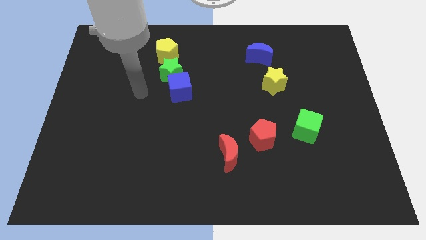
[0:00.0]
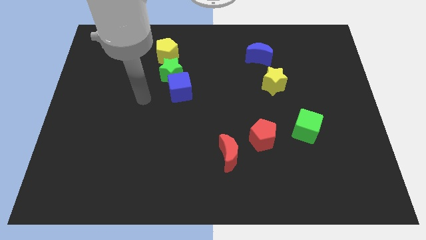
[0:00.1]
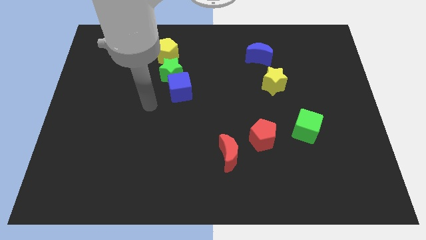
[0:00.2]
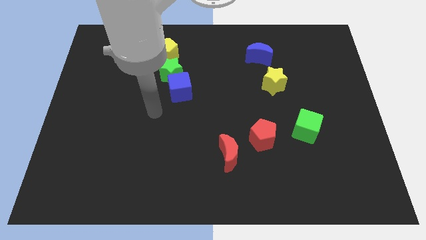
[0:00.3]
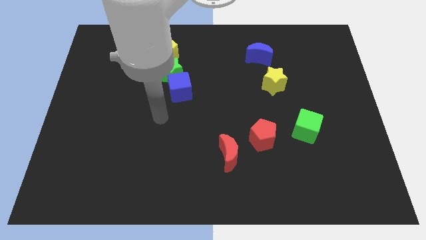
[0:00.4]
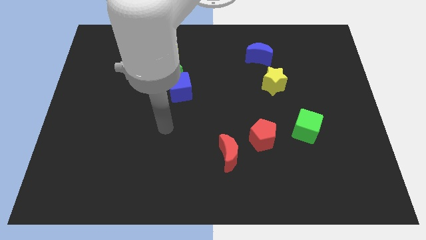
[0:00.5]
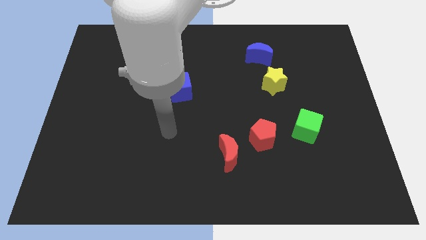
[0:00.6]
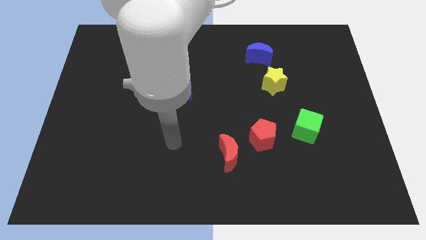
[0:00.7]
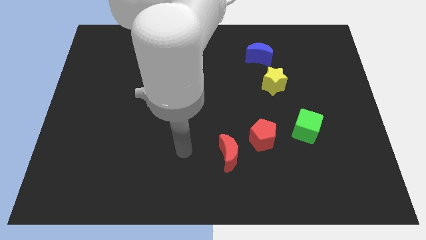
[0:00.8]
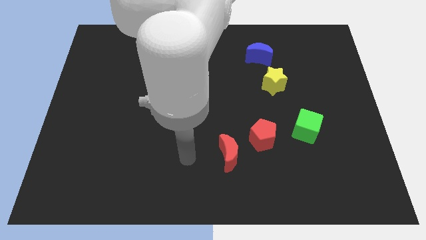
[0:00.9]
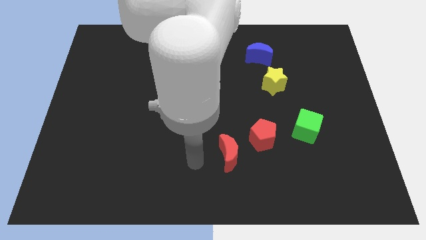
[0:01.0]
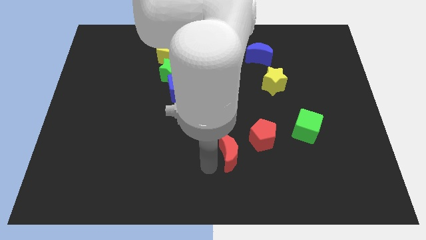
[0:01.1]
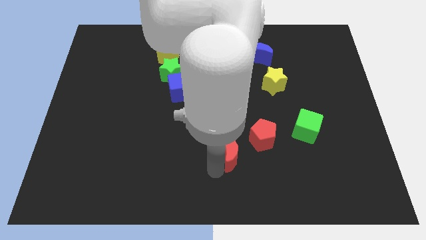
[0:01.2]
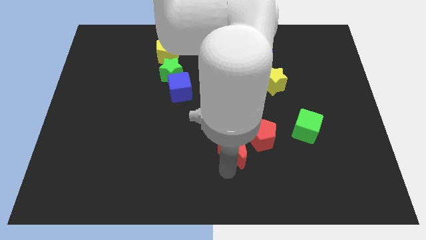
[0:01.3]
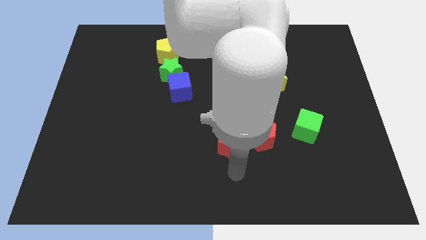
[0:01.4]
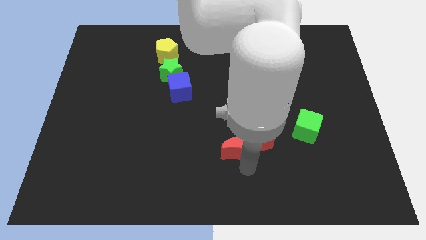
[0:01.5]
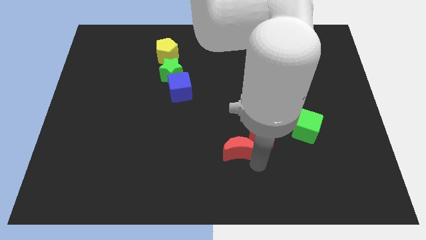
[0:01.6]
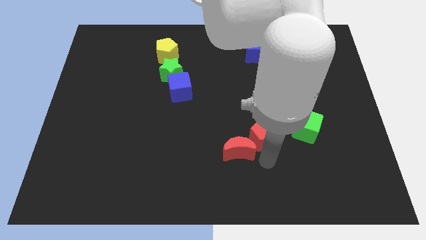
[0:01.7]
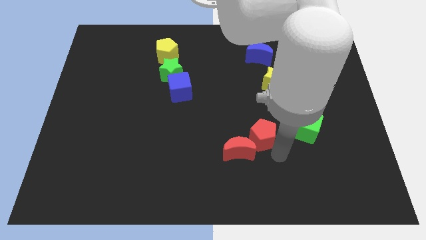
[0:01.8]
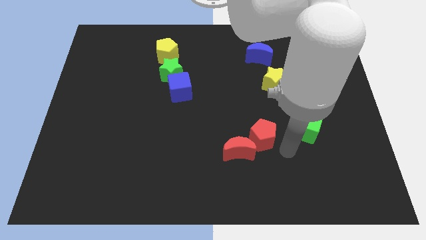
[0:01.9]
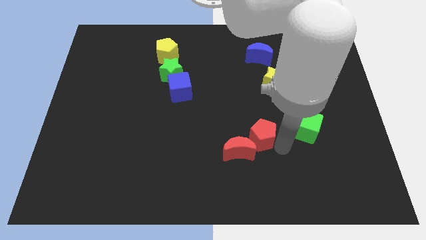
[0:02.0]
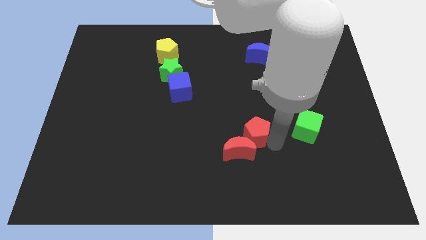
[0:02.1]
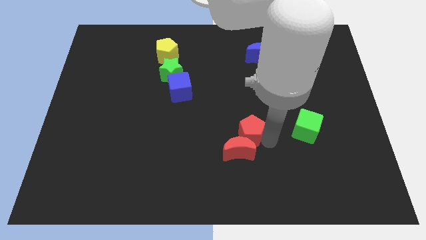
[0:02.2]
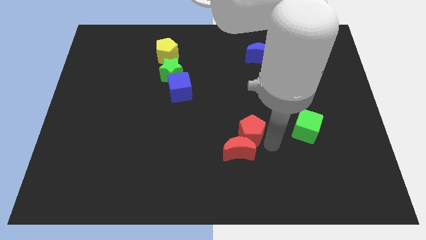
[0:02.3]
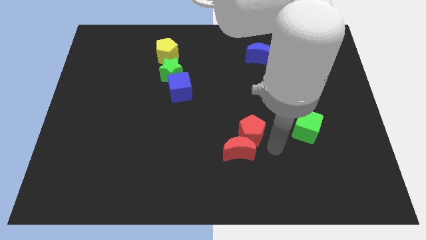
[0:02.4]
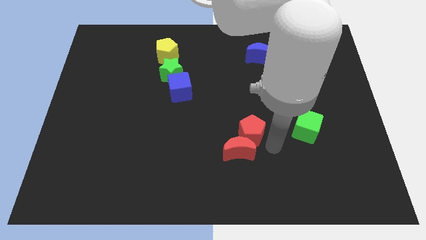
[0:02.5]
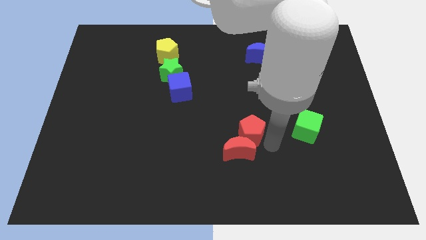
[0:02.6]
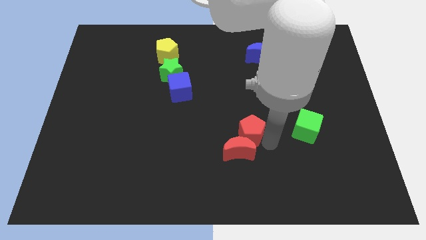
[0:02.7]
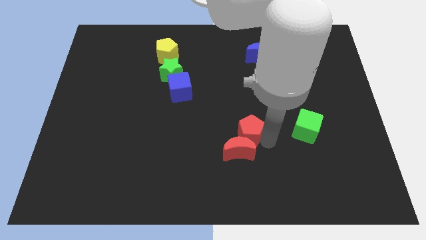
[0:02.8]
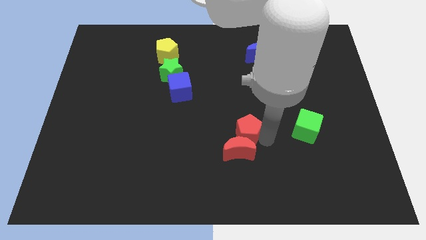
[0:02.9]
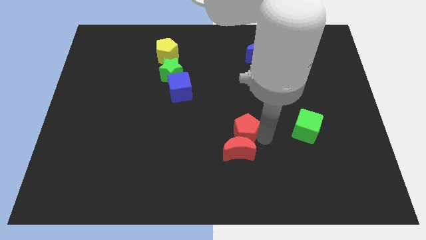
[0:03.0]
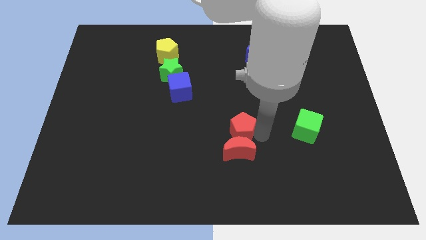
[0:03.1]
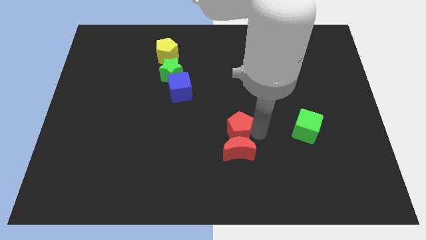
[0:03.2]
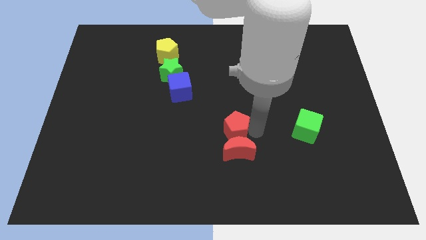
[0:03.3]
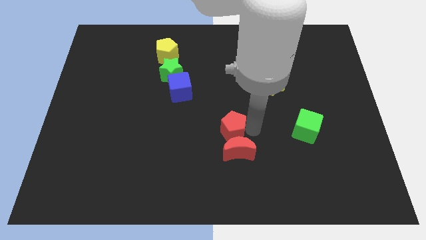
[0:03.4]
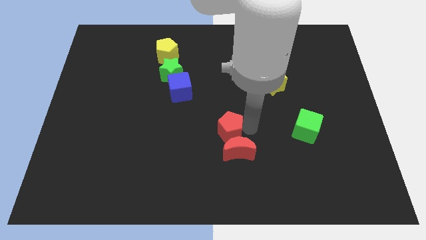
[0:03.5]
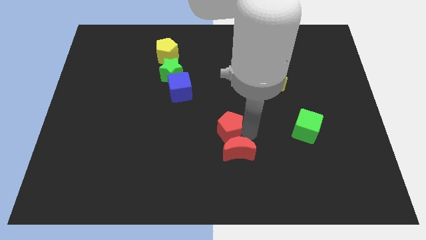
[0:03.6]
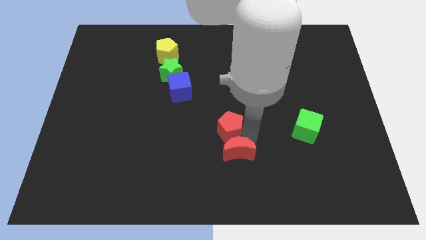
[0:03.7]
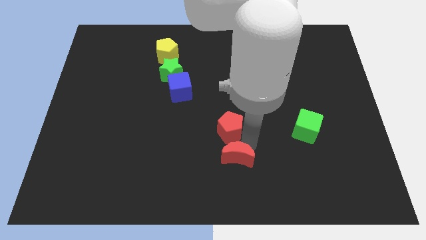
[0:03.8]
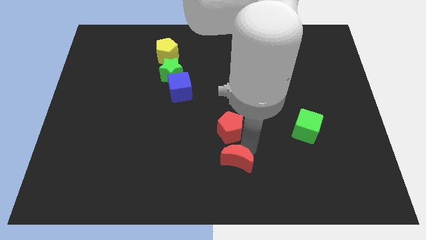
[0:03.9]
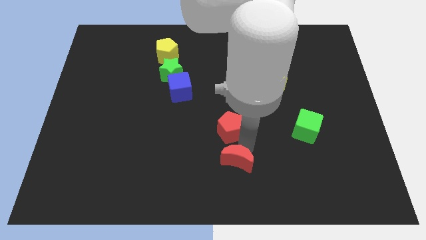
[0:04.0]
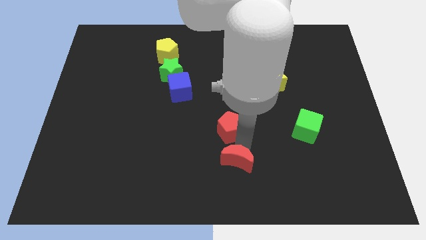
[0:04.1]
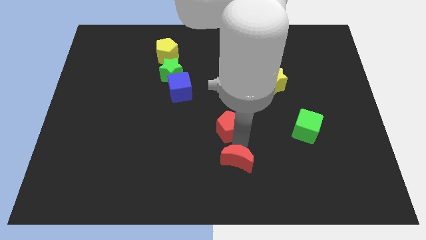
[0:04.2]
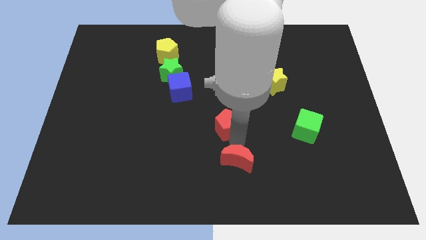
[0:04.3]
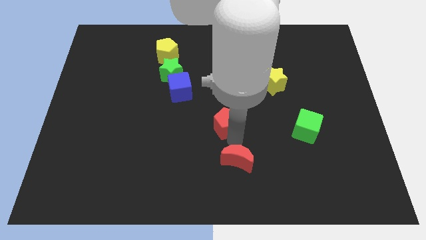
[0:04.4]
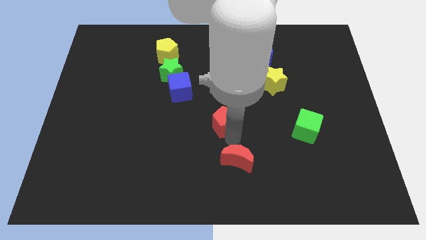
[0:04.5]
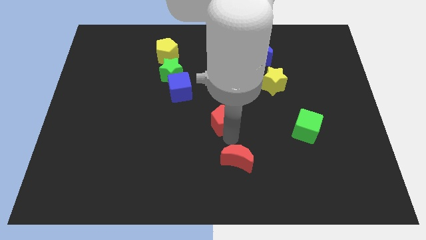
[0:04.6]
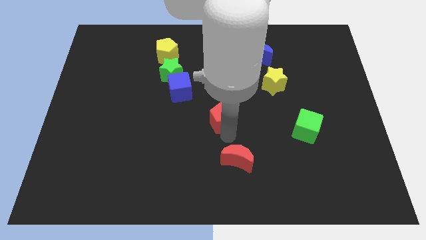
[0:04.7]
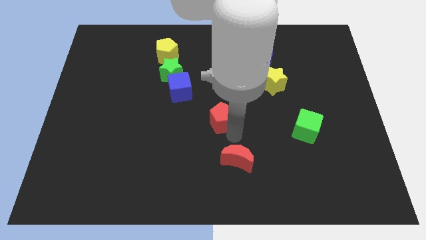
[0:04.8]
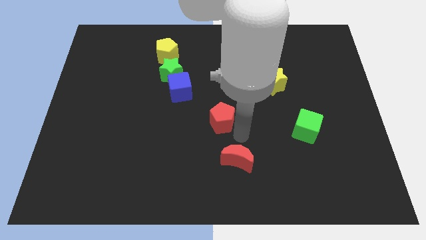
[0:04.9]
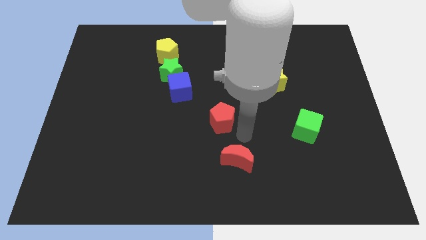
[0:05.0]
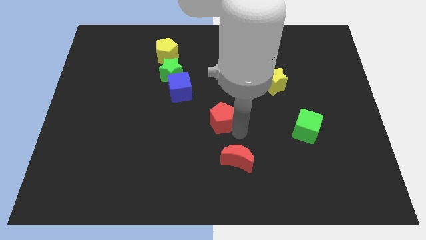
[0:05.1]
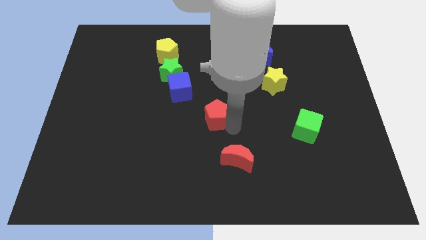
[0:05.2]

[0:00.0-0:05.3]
push the red pentagon diagonally down and to the right of the blue cube

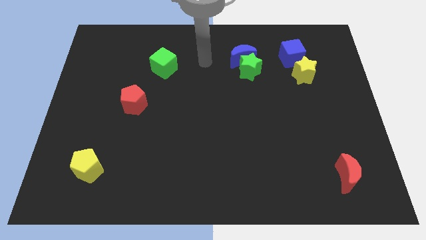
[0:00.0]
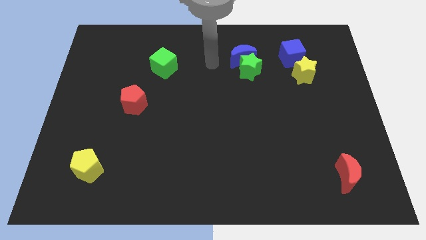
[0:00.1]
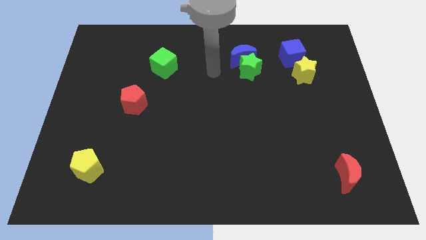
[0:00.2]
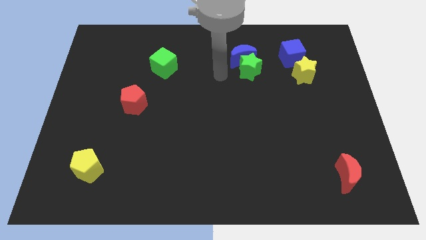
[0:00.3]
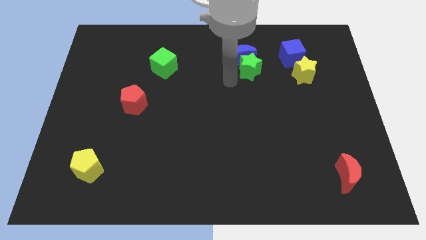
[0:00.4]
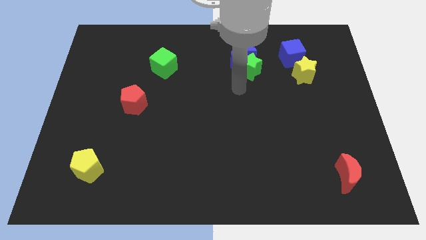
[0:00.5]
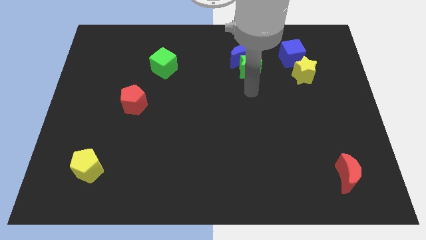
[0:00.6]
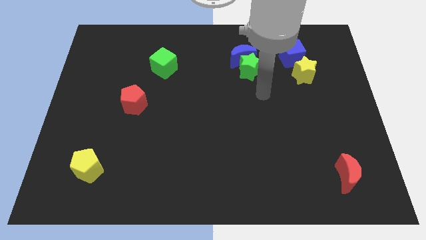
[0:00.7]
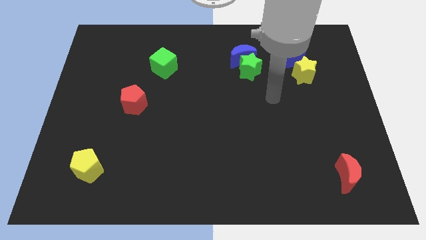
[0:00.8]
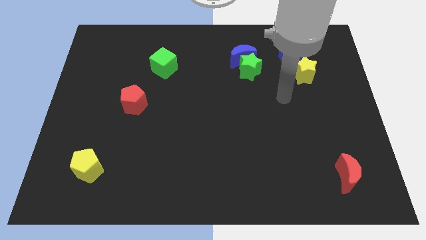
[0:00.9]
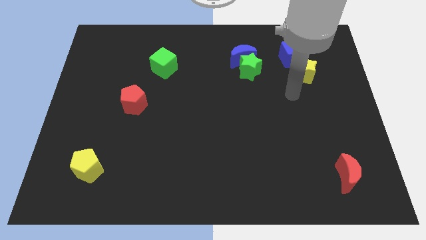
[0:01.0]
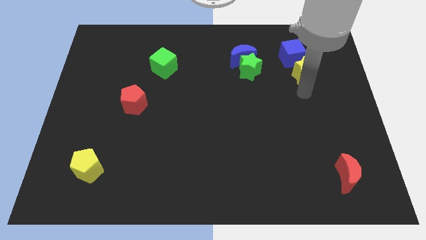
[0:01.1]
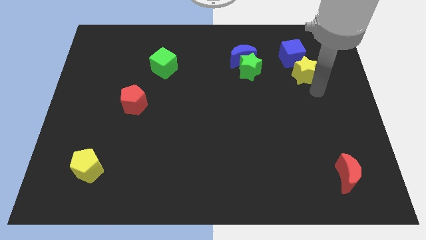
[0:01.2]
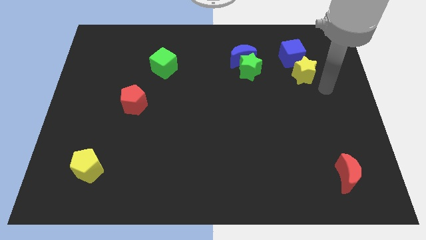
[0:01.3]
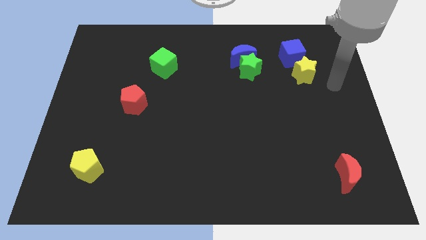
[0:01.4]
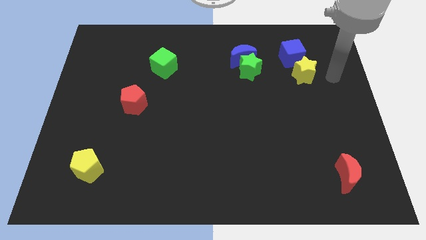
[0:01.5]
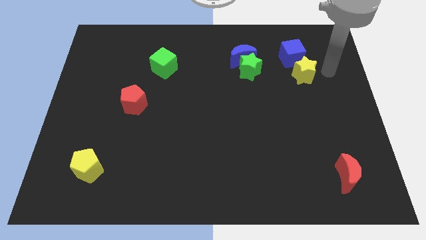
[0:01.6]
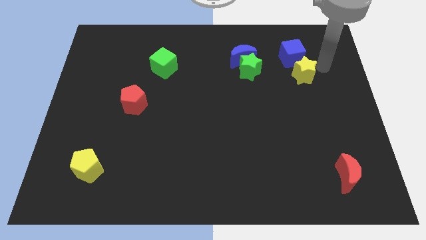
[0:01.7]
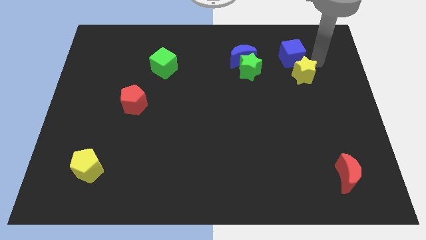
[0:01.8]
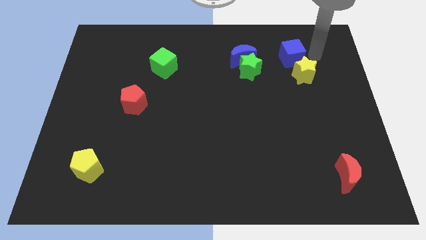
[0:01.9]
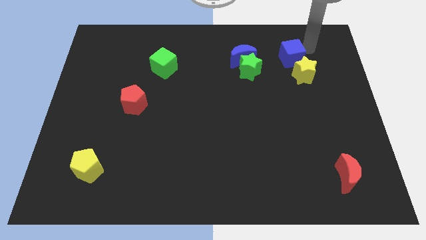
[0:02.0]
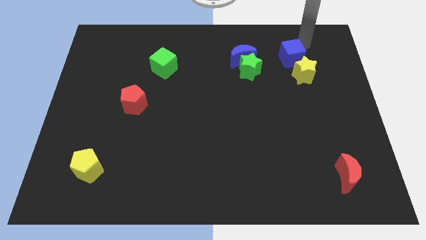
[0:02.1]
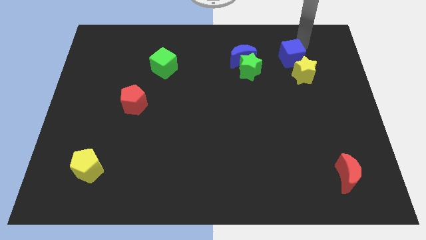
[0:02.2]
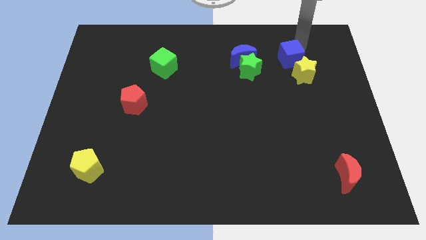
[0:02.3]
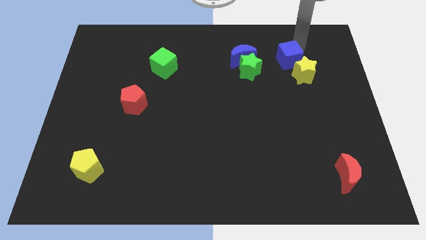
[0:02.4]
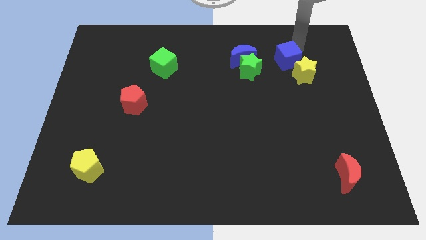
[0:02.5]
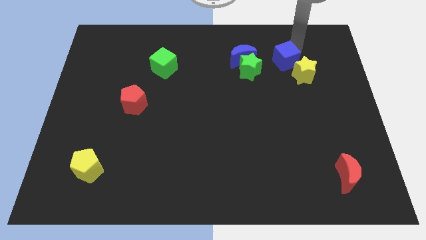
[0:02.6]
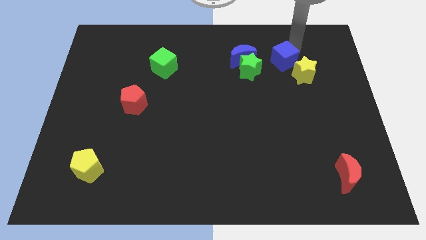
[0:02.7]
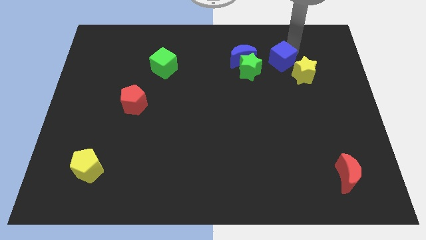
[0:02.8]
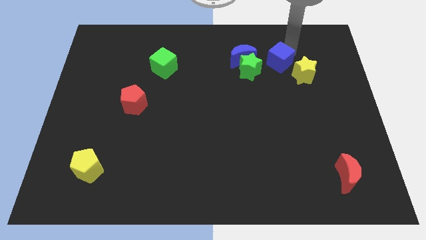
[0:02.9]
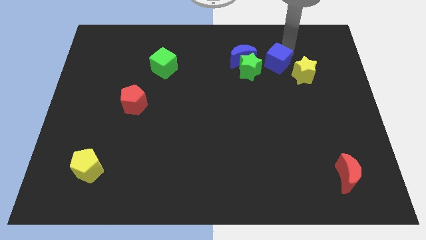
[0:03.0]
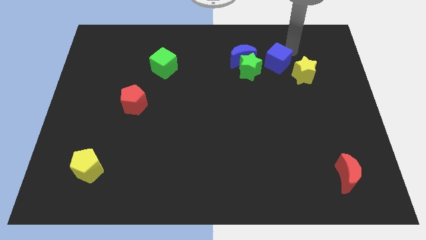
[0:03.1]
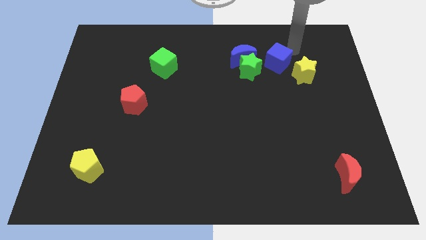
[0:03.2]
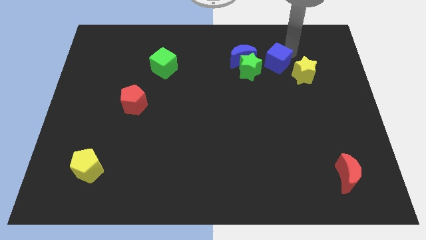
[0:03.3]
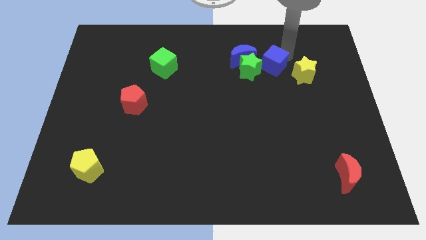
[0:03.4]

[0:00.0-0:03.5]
slide the blue cube diagonally down and to the right of the blue moon
